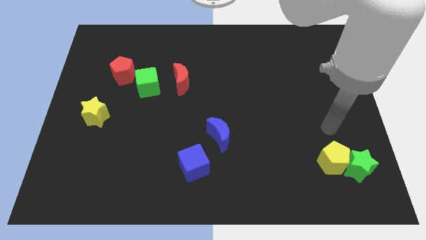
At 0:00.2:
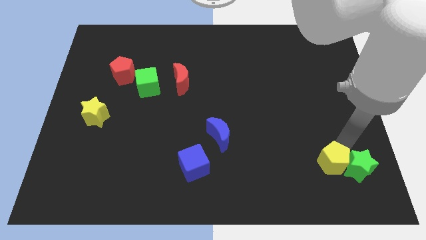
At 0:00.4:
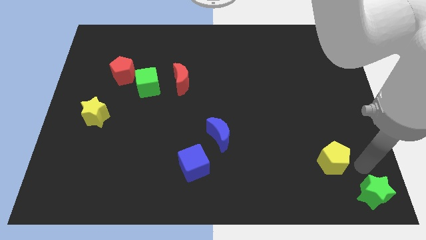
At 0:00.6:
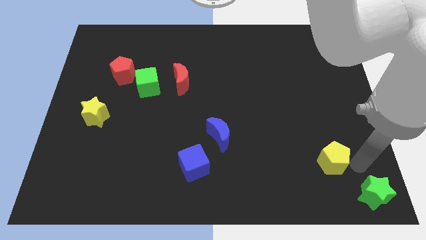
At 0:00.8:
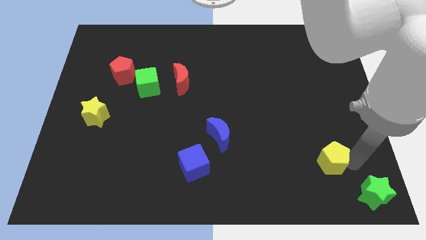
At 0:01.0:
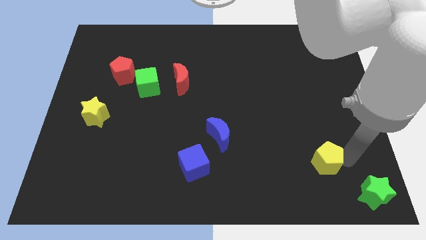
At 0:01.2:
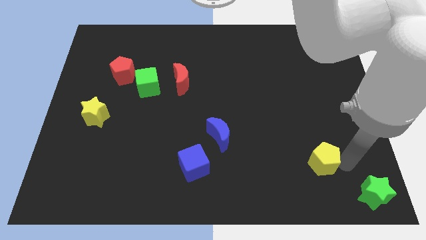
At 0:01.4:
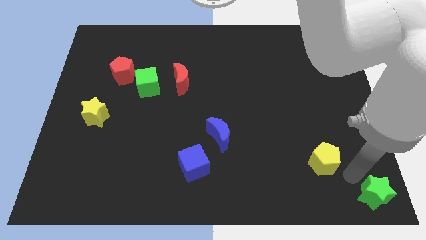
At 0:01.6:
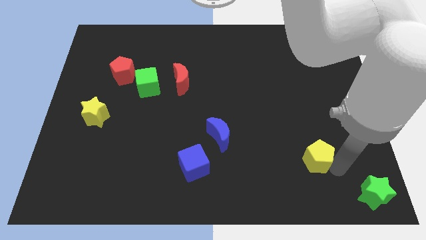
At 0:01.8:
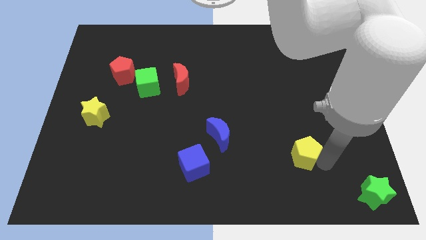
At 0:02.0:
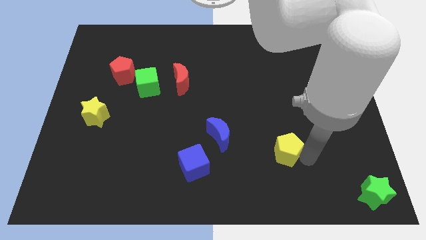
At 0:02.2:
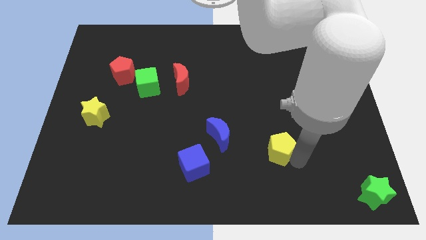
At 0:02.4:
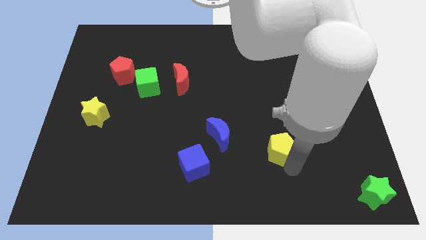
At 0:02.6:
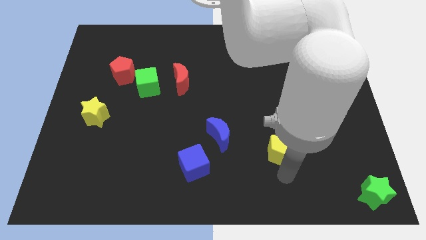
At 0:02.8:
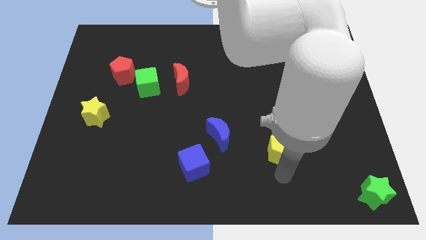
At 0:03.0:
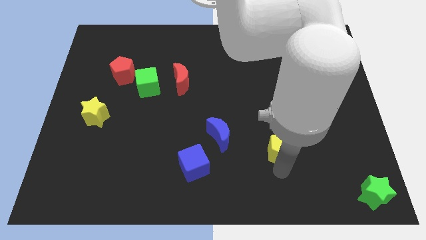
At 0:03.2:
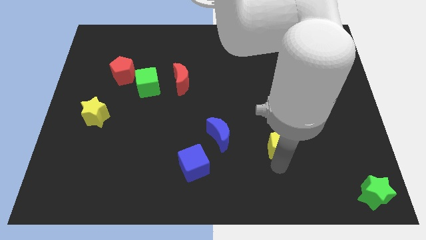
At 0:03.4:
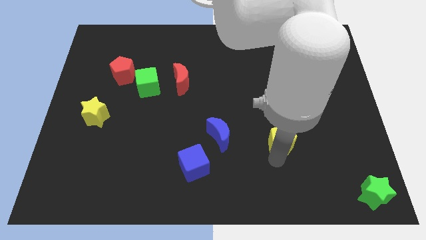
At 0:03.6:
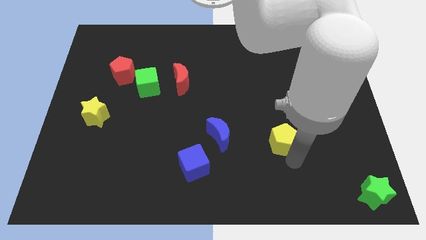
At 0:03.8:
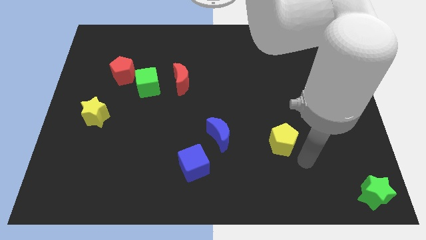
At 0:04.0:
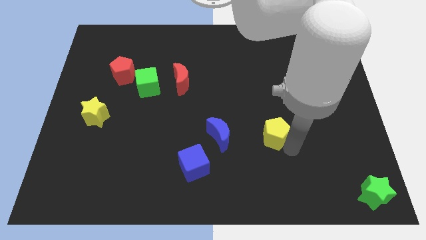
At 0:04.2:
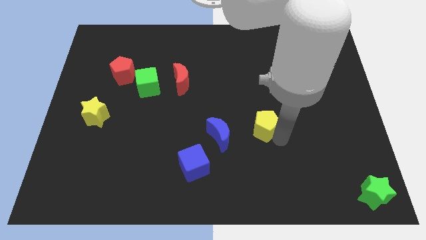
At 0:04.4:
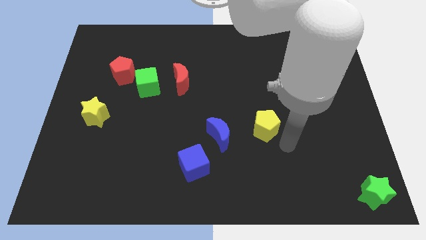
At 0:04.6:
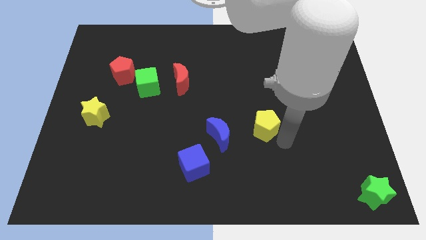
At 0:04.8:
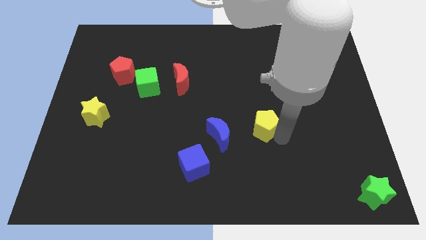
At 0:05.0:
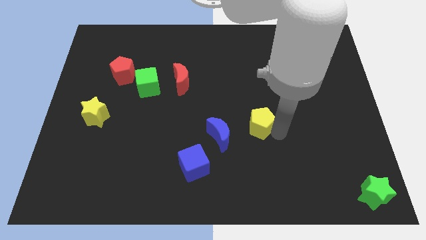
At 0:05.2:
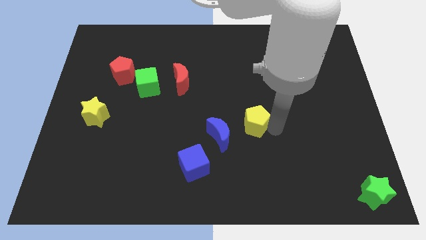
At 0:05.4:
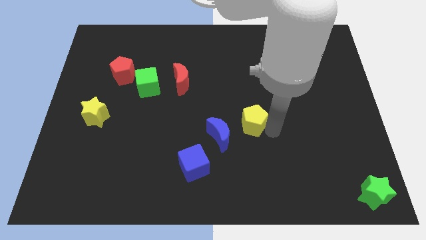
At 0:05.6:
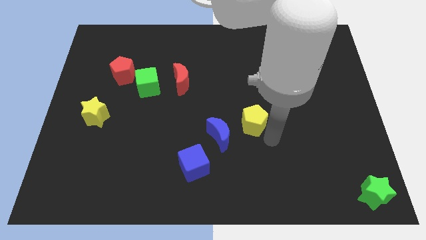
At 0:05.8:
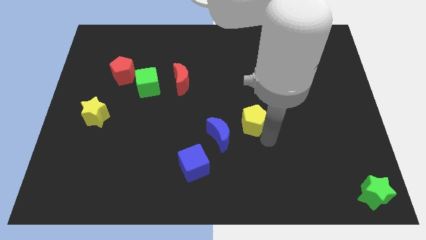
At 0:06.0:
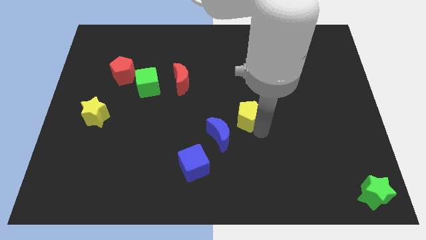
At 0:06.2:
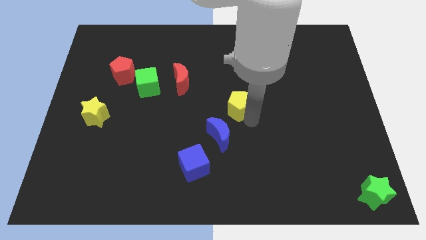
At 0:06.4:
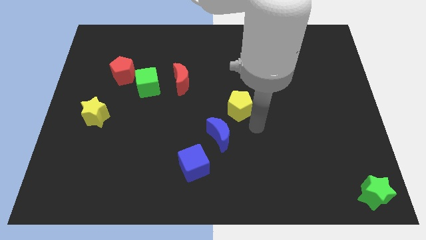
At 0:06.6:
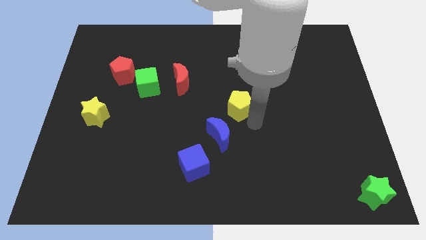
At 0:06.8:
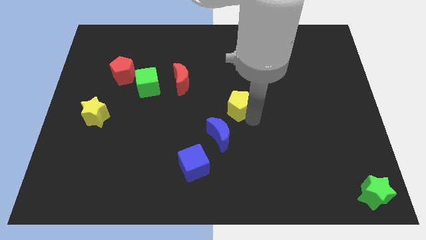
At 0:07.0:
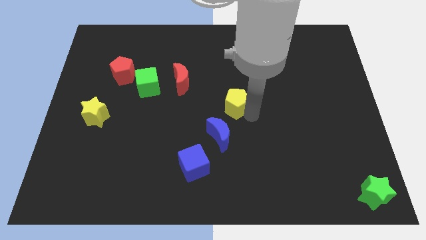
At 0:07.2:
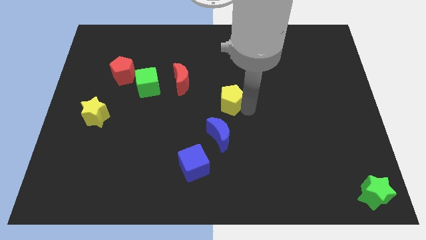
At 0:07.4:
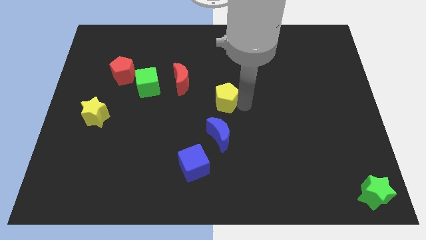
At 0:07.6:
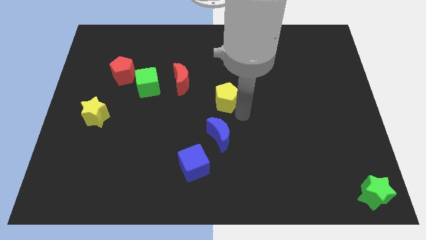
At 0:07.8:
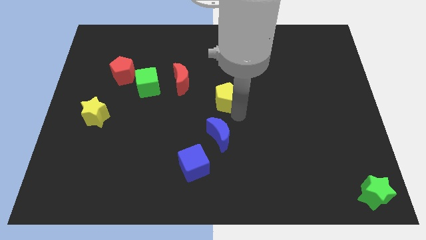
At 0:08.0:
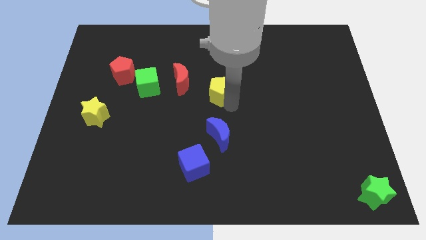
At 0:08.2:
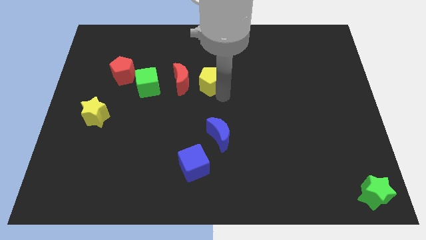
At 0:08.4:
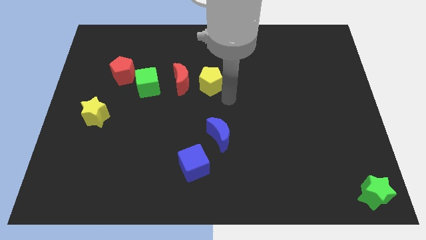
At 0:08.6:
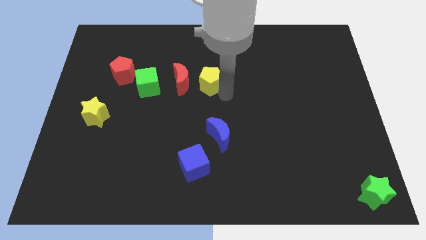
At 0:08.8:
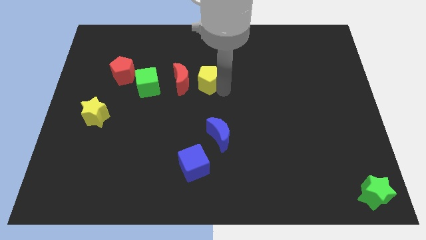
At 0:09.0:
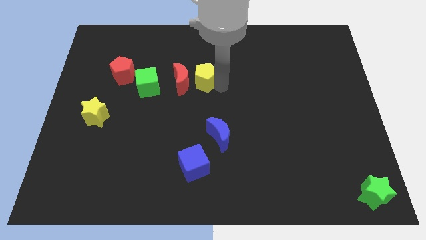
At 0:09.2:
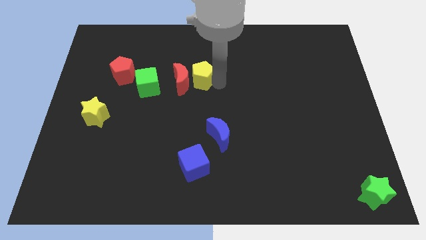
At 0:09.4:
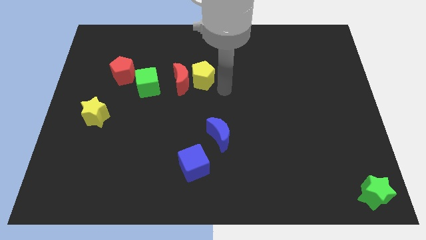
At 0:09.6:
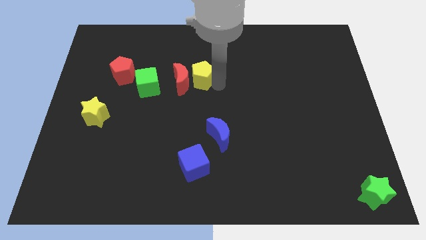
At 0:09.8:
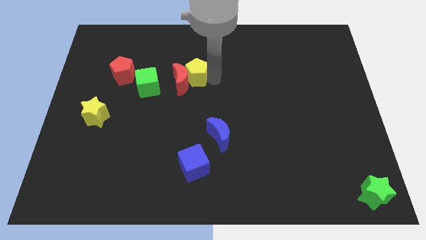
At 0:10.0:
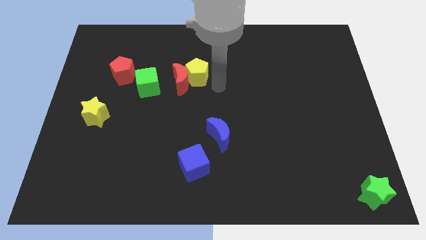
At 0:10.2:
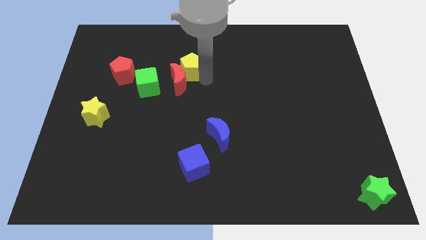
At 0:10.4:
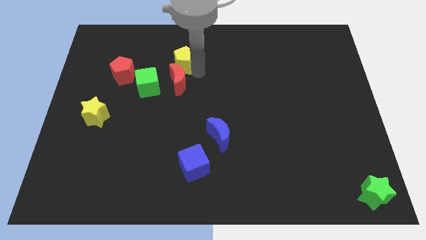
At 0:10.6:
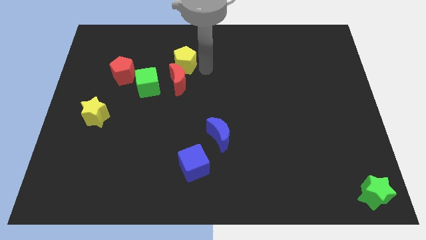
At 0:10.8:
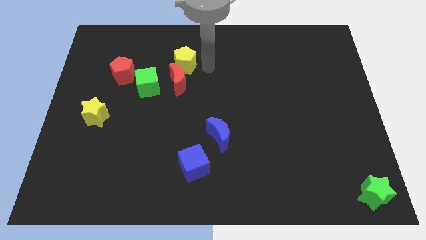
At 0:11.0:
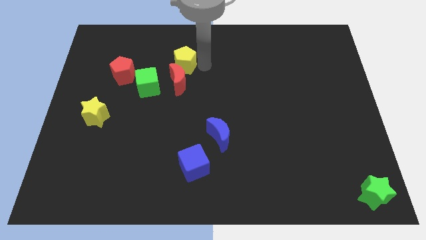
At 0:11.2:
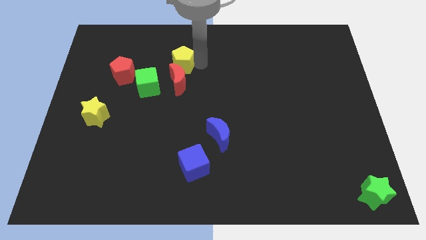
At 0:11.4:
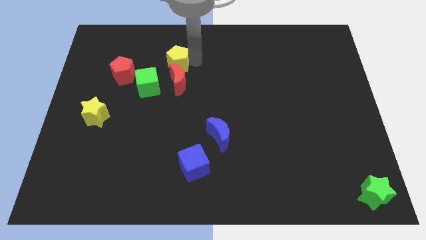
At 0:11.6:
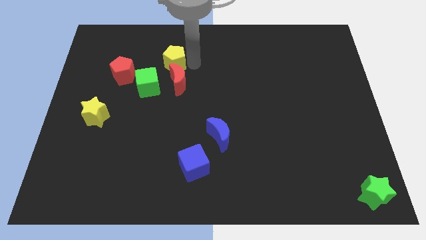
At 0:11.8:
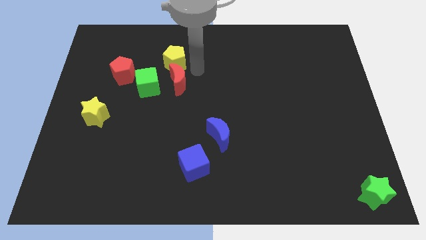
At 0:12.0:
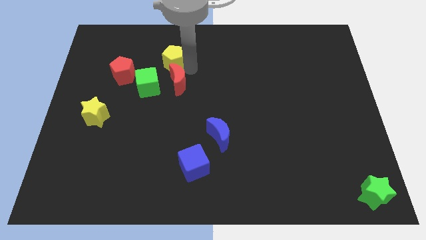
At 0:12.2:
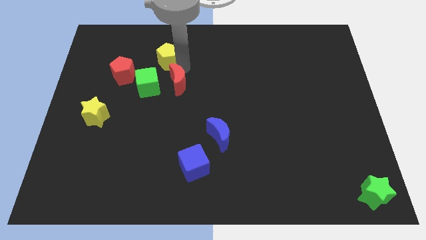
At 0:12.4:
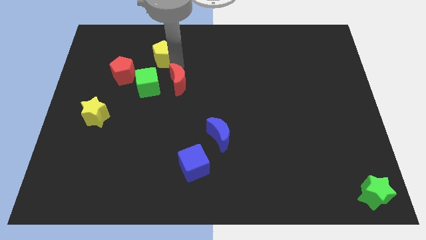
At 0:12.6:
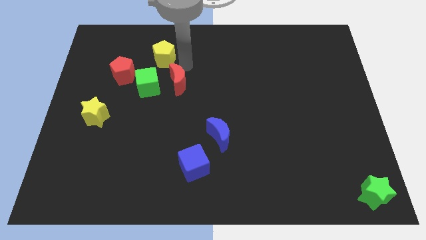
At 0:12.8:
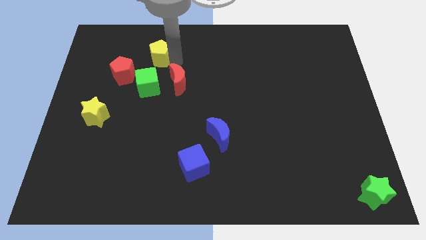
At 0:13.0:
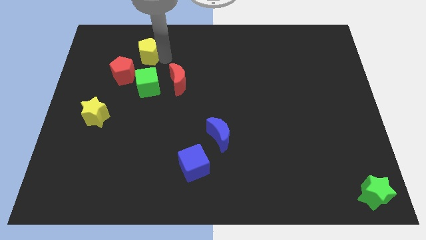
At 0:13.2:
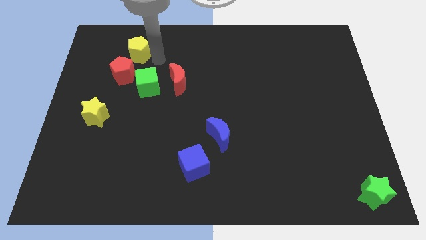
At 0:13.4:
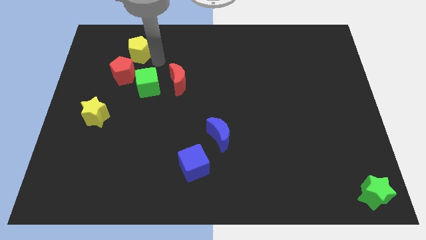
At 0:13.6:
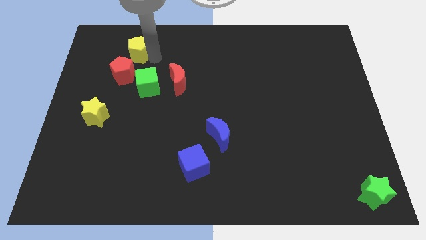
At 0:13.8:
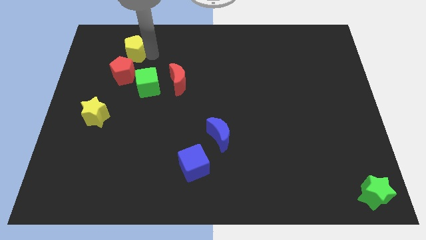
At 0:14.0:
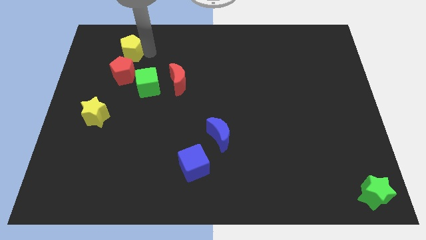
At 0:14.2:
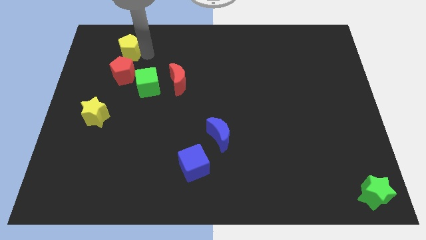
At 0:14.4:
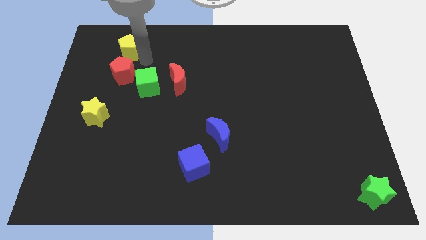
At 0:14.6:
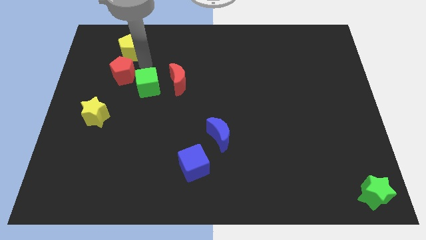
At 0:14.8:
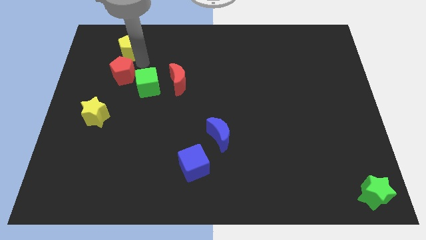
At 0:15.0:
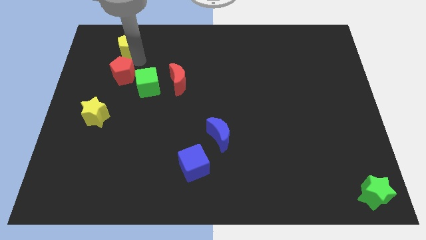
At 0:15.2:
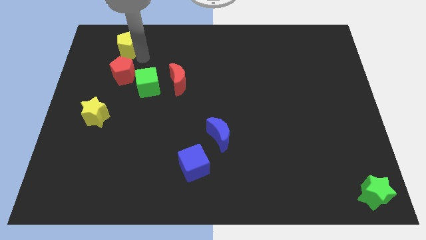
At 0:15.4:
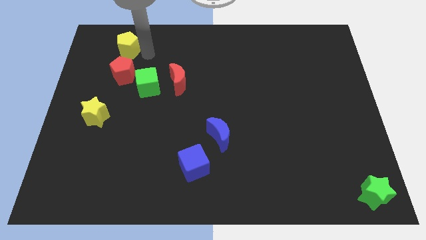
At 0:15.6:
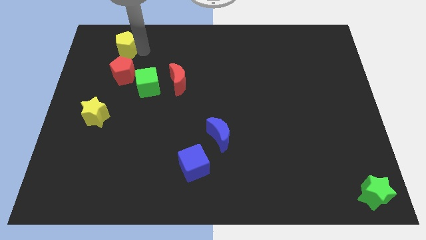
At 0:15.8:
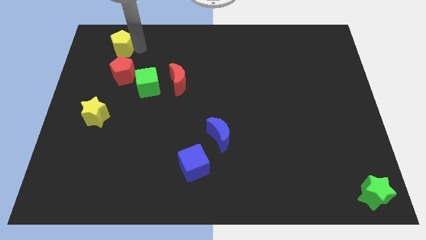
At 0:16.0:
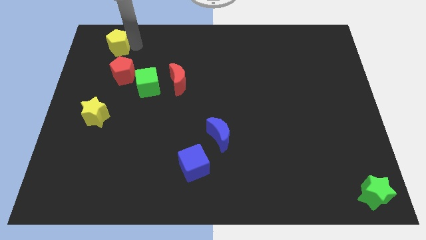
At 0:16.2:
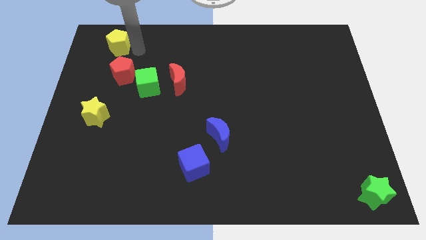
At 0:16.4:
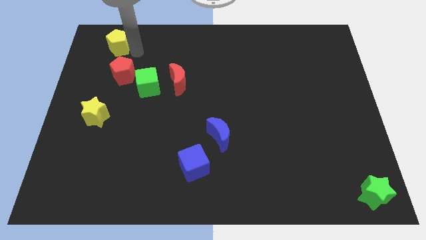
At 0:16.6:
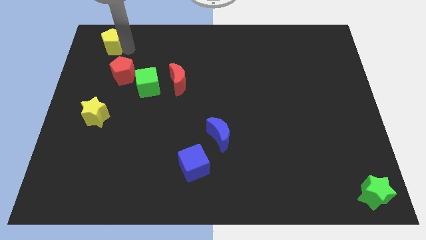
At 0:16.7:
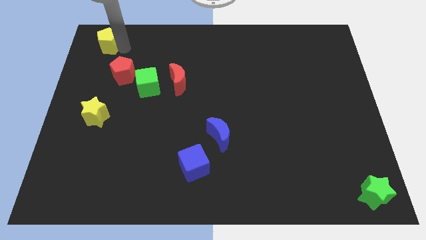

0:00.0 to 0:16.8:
push the yellow pentagon to the top left of the board
